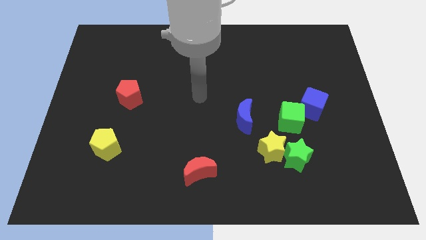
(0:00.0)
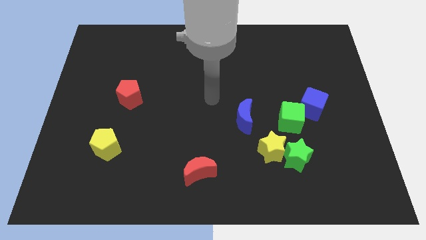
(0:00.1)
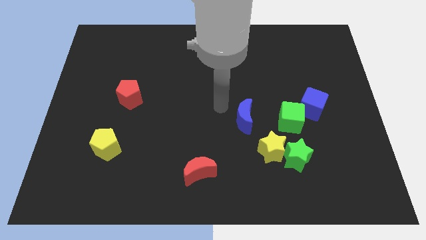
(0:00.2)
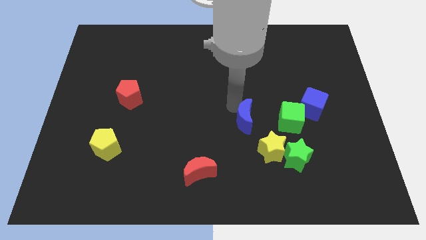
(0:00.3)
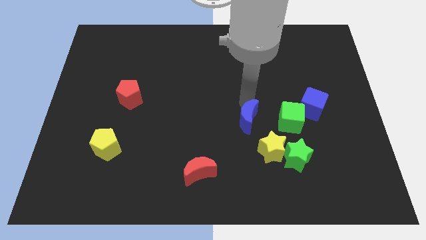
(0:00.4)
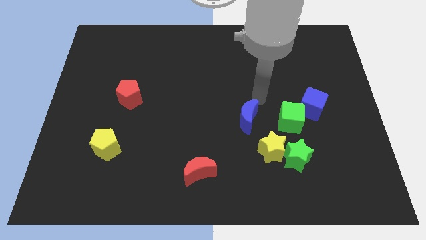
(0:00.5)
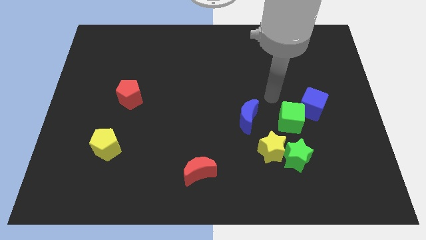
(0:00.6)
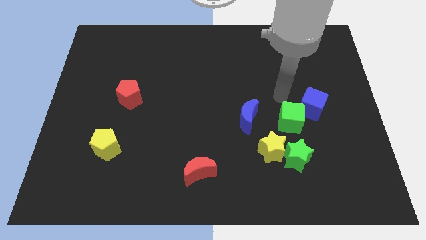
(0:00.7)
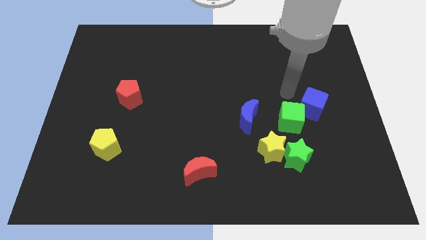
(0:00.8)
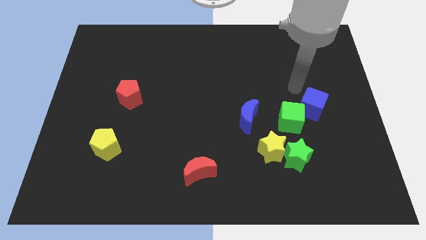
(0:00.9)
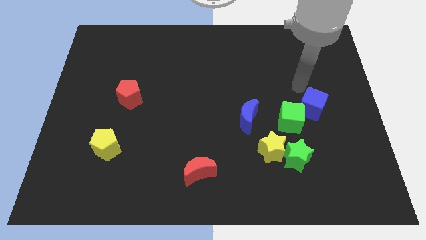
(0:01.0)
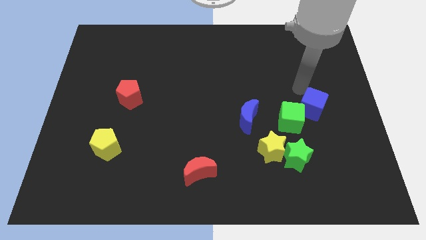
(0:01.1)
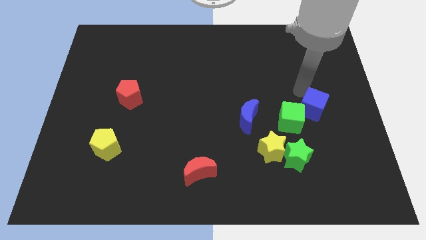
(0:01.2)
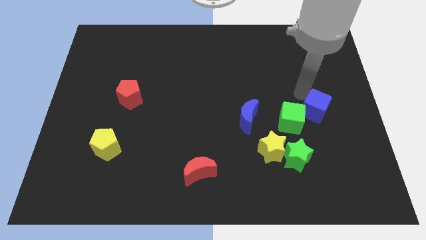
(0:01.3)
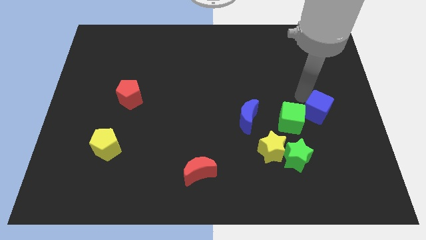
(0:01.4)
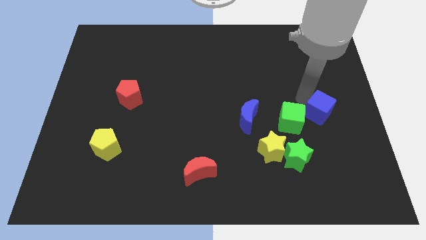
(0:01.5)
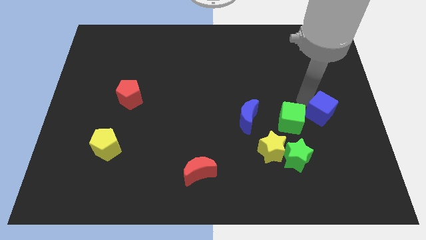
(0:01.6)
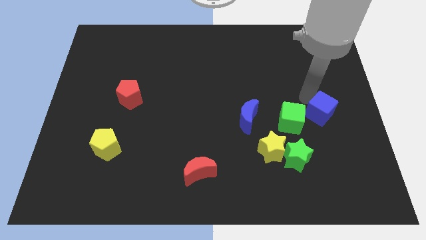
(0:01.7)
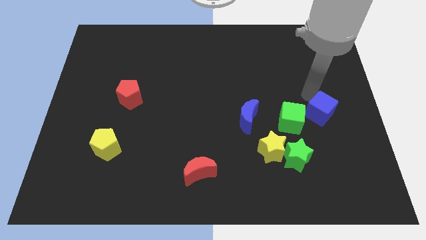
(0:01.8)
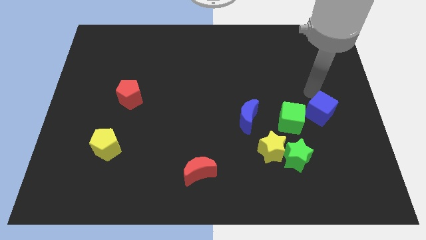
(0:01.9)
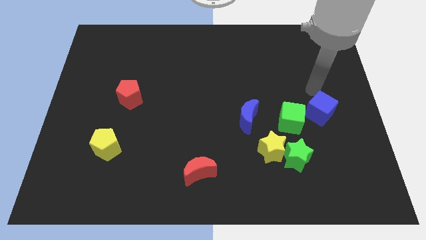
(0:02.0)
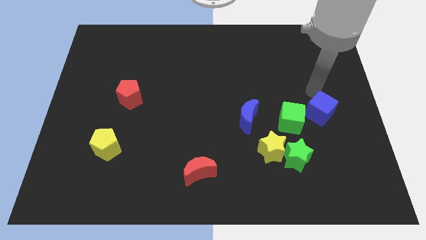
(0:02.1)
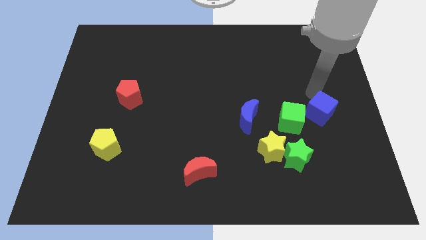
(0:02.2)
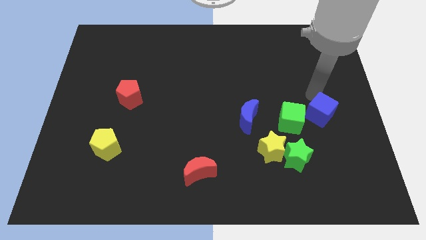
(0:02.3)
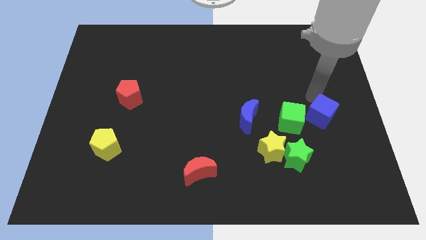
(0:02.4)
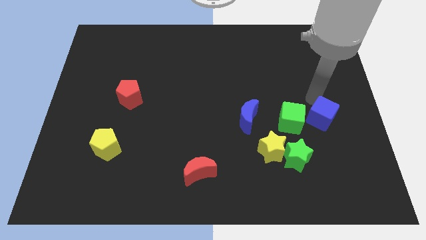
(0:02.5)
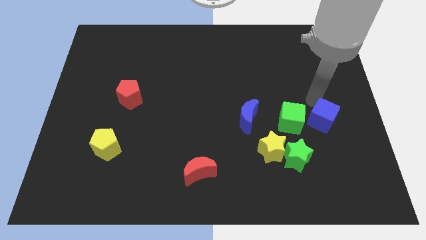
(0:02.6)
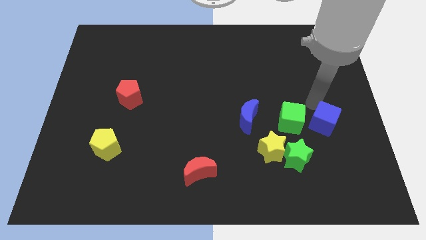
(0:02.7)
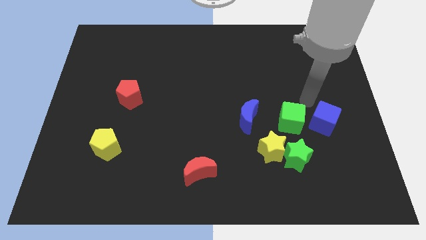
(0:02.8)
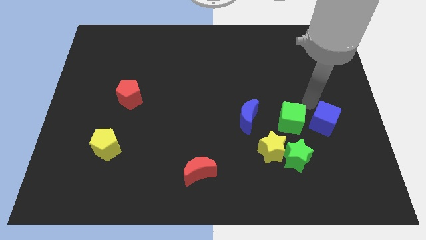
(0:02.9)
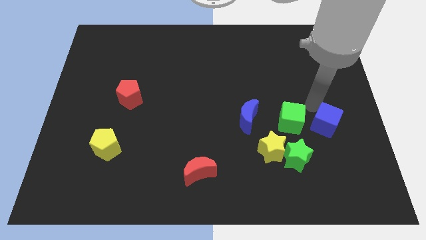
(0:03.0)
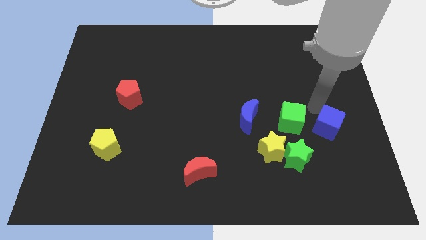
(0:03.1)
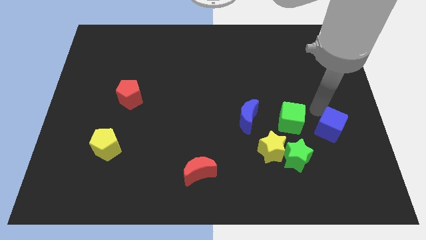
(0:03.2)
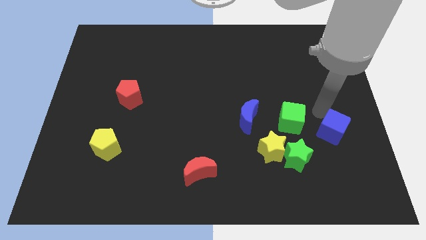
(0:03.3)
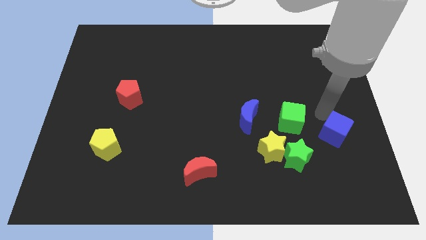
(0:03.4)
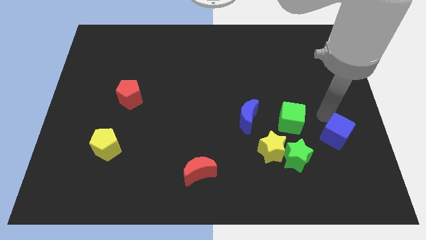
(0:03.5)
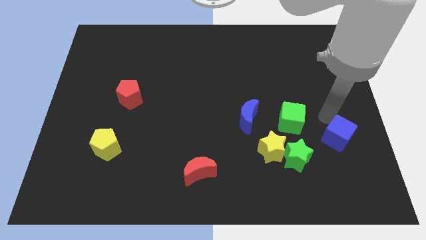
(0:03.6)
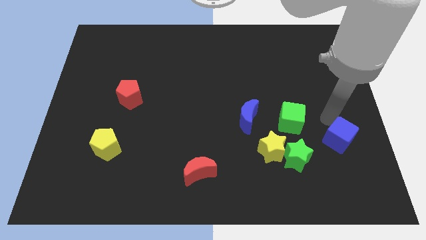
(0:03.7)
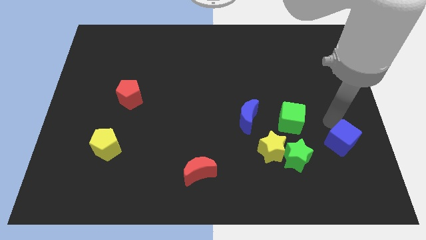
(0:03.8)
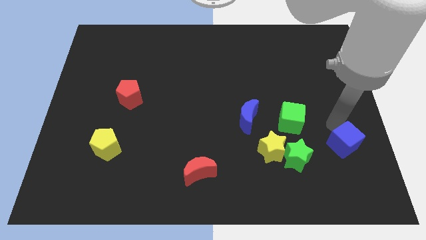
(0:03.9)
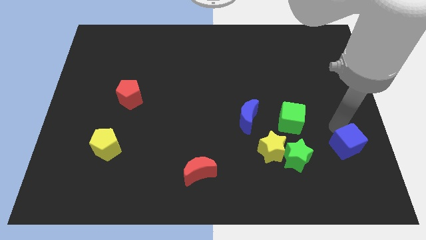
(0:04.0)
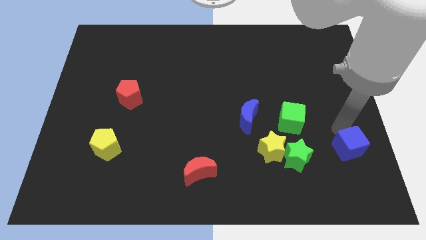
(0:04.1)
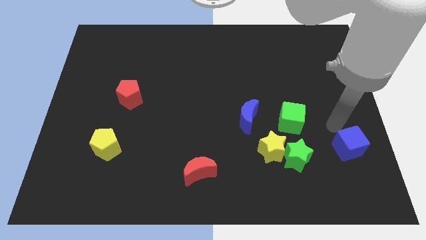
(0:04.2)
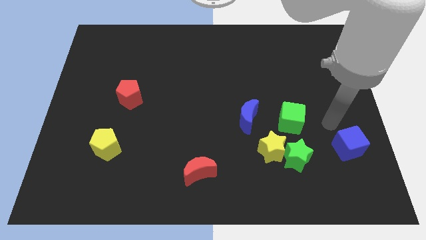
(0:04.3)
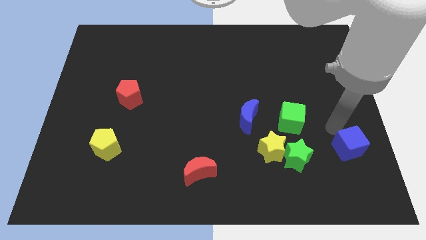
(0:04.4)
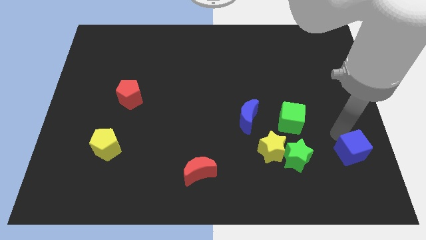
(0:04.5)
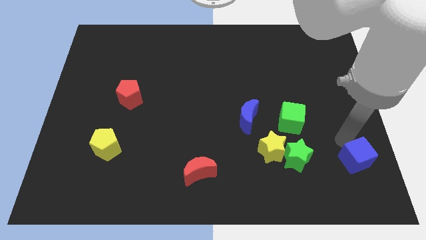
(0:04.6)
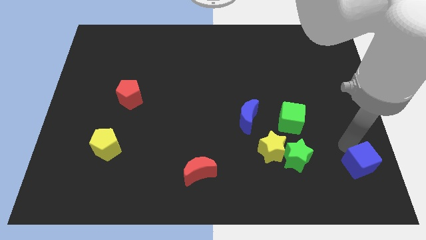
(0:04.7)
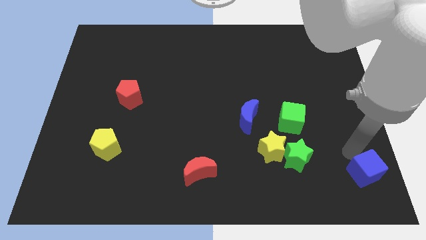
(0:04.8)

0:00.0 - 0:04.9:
slide the blue cube to the bottom right corner

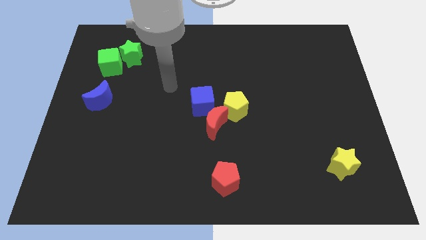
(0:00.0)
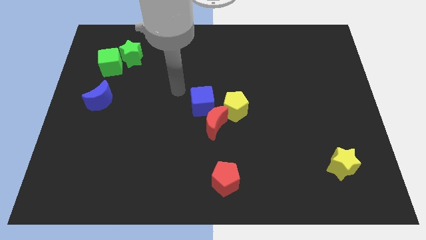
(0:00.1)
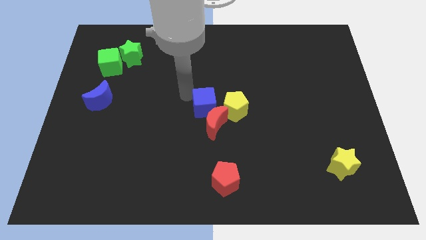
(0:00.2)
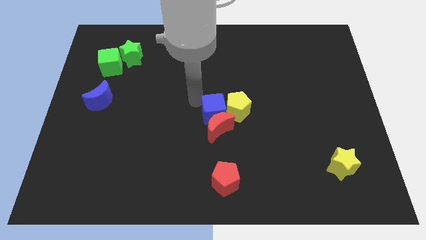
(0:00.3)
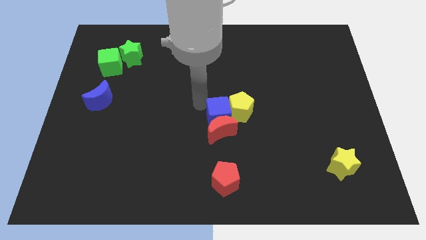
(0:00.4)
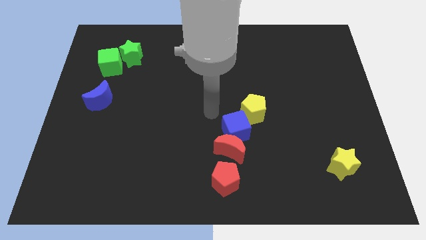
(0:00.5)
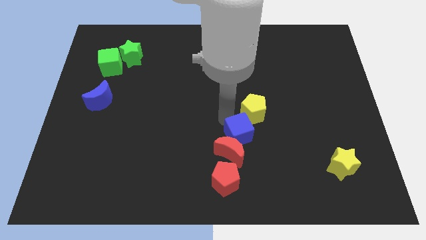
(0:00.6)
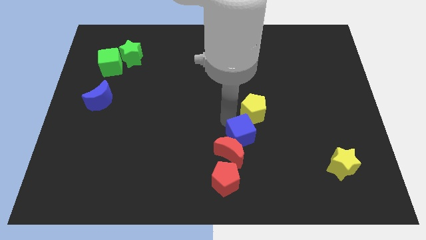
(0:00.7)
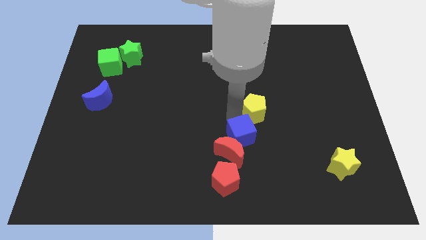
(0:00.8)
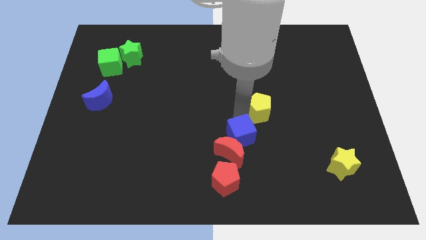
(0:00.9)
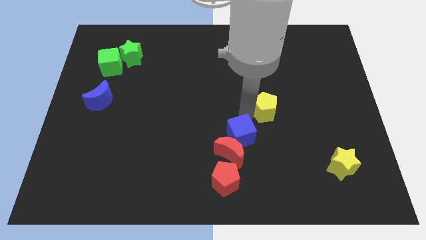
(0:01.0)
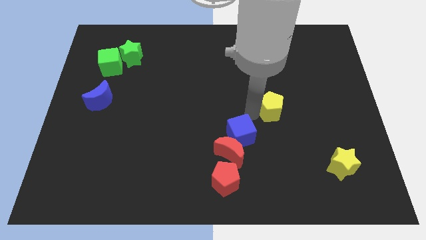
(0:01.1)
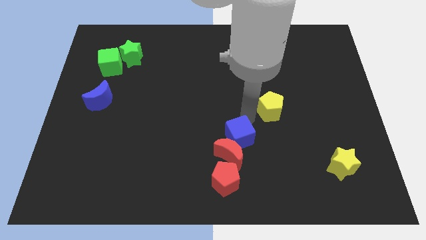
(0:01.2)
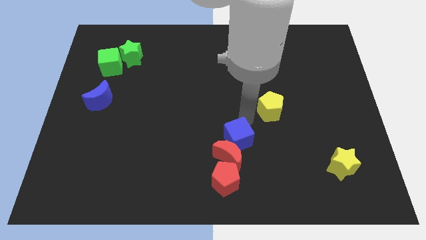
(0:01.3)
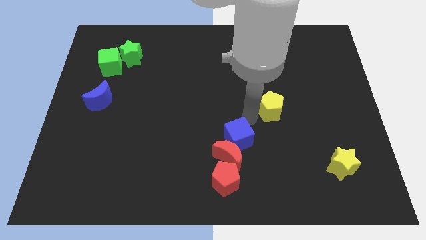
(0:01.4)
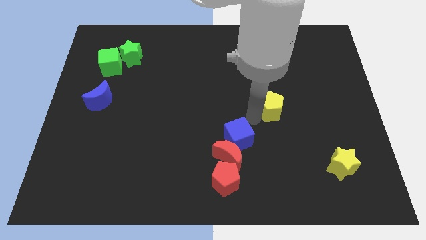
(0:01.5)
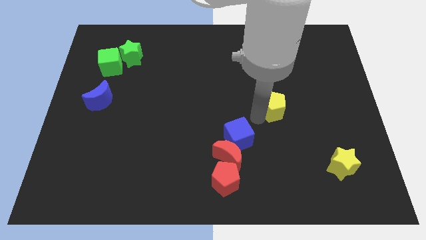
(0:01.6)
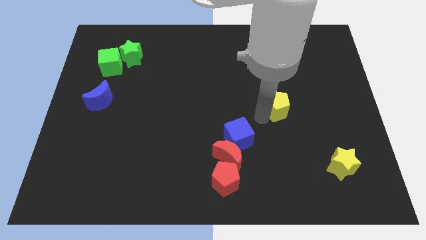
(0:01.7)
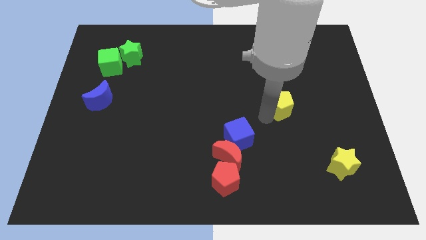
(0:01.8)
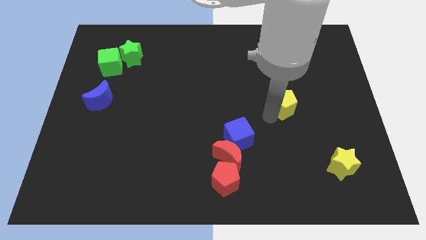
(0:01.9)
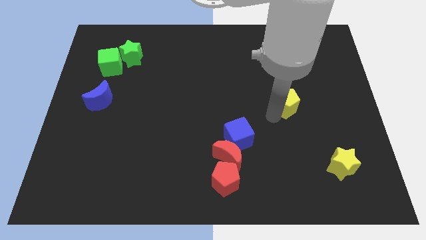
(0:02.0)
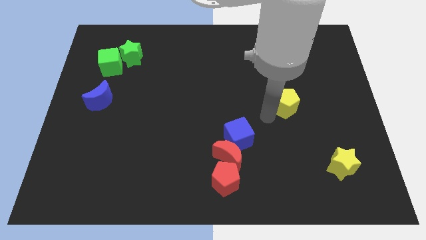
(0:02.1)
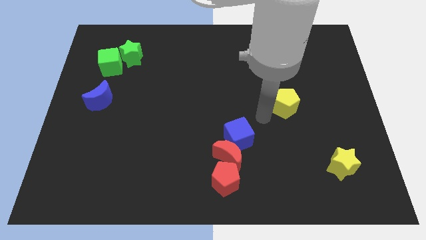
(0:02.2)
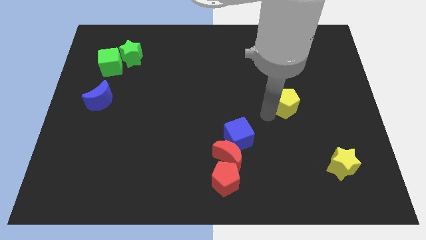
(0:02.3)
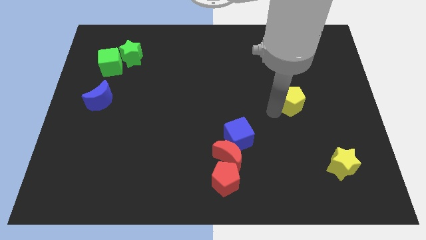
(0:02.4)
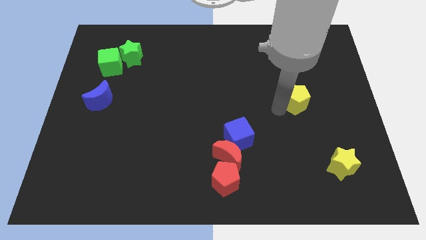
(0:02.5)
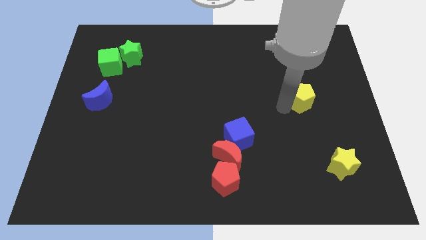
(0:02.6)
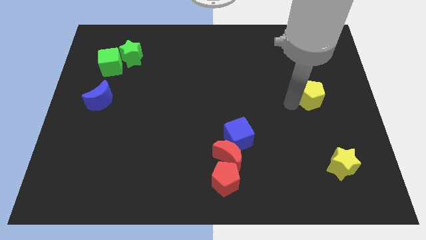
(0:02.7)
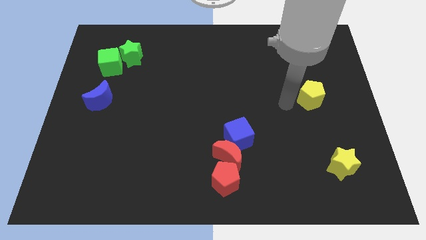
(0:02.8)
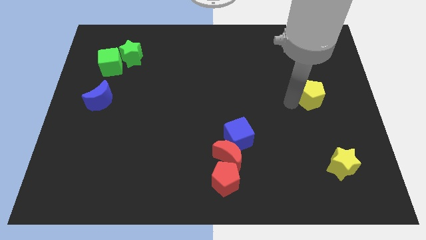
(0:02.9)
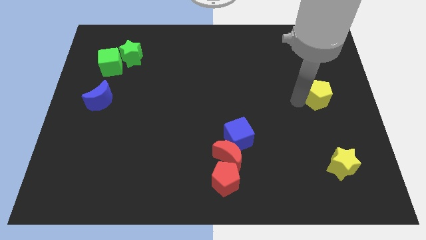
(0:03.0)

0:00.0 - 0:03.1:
move the yellow pentagon to the right side
